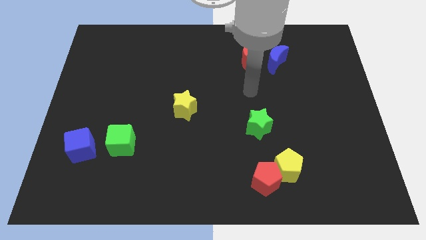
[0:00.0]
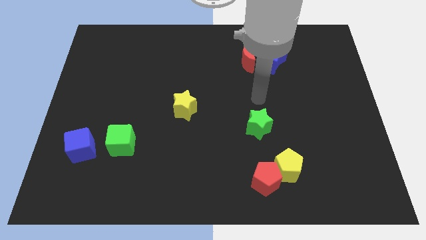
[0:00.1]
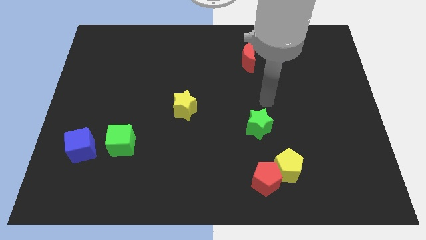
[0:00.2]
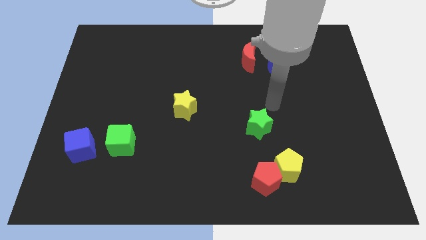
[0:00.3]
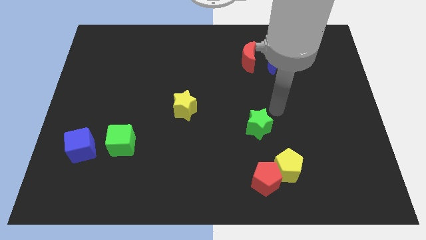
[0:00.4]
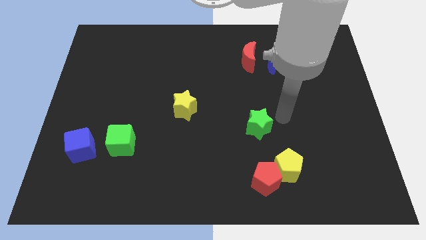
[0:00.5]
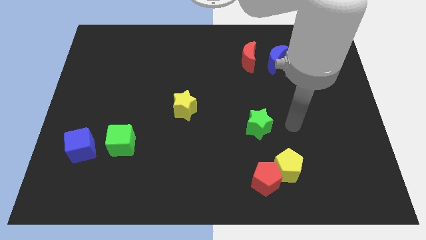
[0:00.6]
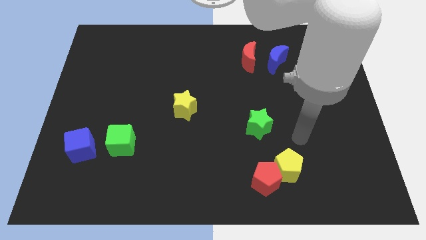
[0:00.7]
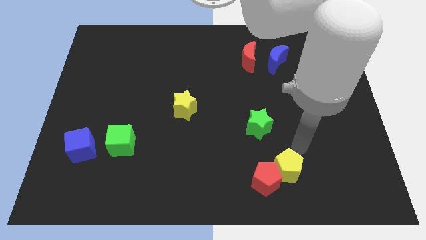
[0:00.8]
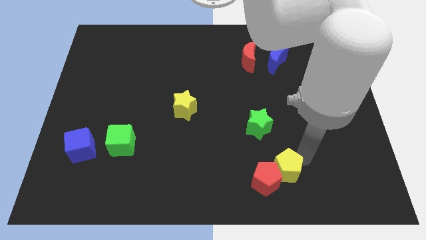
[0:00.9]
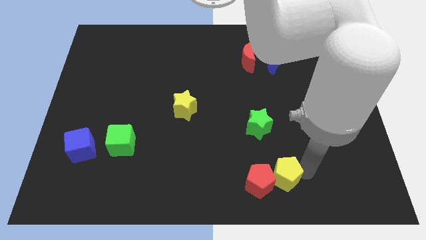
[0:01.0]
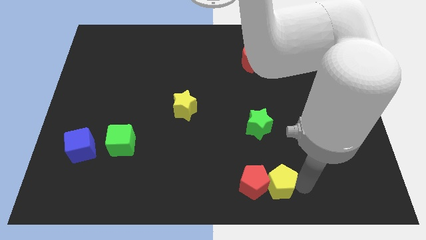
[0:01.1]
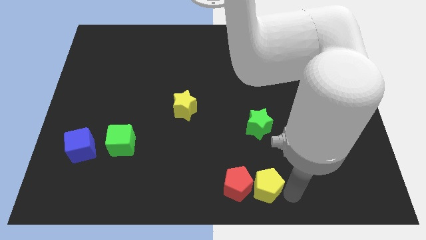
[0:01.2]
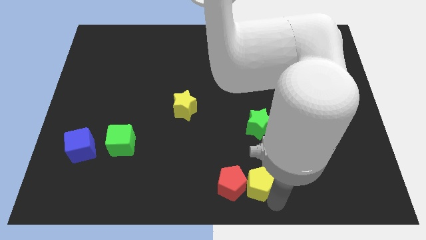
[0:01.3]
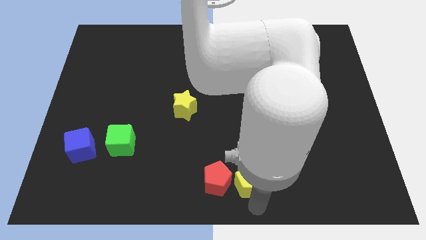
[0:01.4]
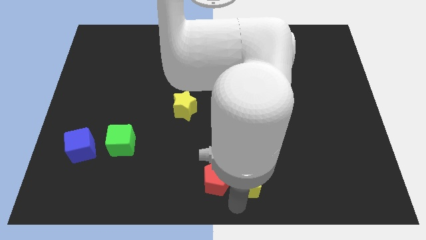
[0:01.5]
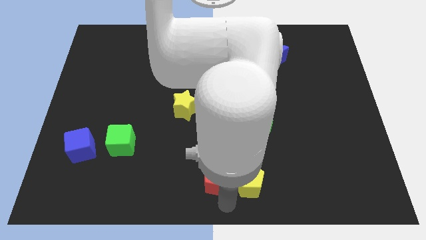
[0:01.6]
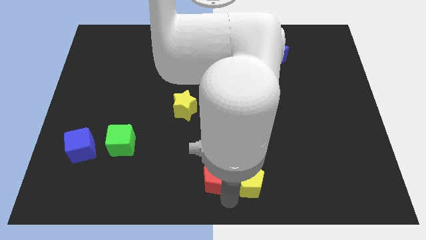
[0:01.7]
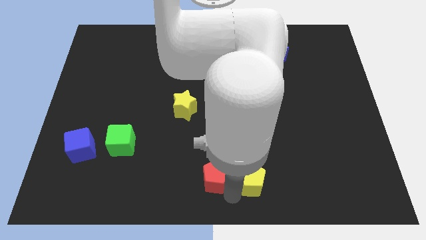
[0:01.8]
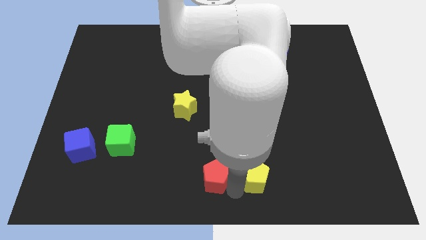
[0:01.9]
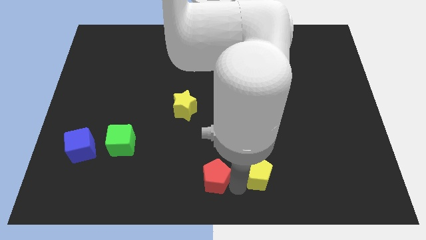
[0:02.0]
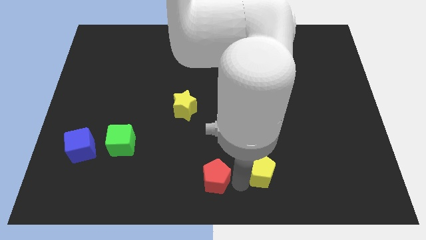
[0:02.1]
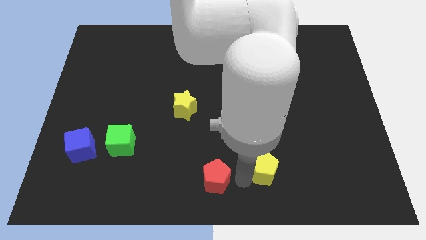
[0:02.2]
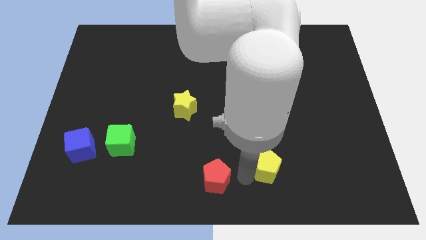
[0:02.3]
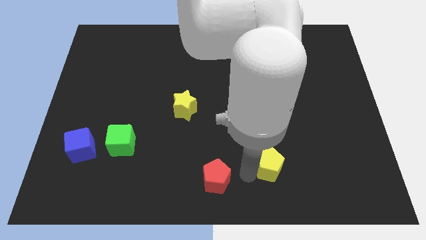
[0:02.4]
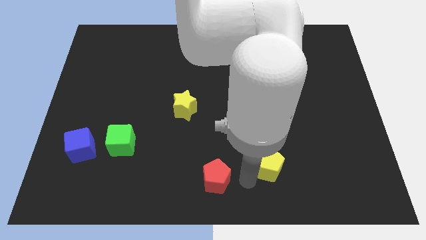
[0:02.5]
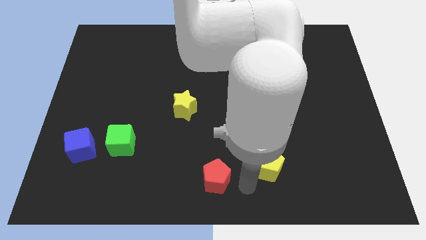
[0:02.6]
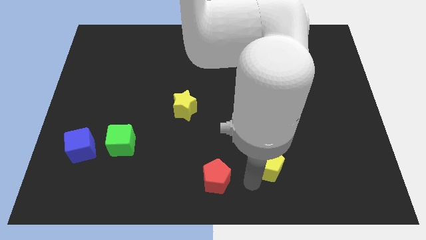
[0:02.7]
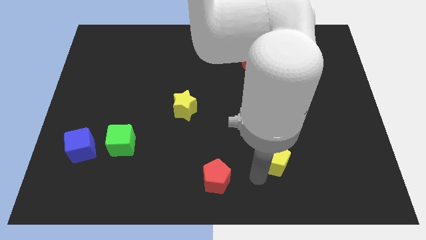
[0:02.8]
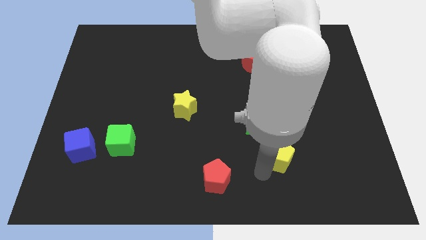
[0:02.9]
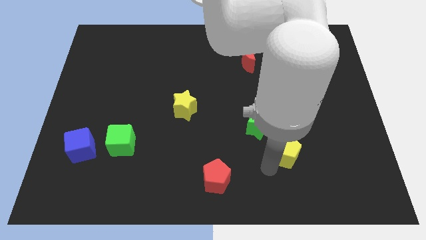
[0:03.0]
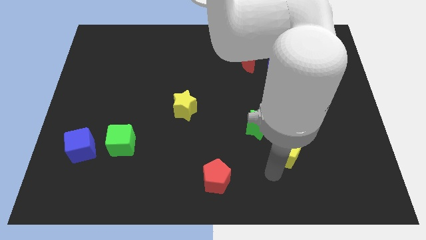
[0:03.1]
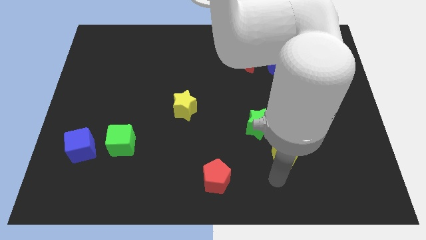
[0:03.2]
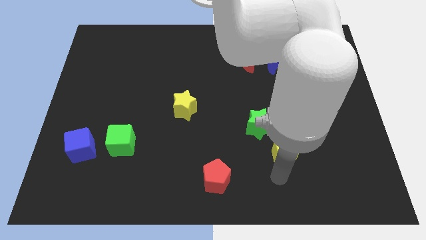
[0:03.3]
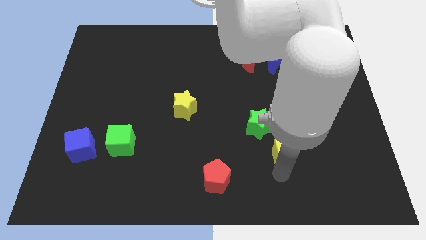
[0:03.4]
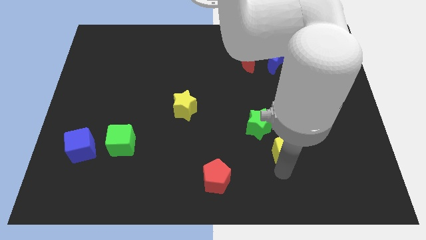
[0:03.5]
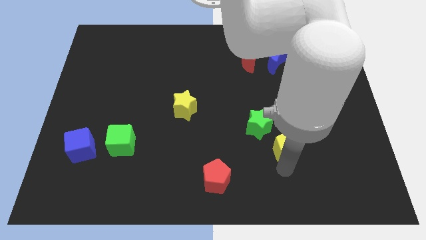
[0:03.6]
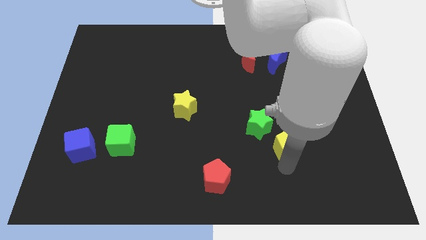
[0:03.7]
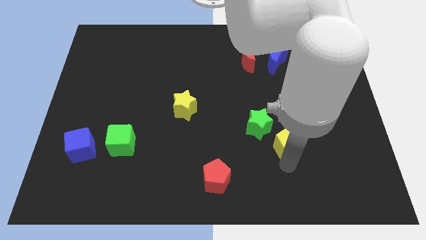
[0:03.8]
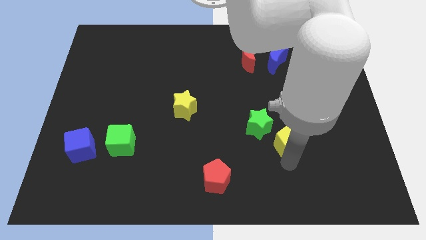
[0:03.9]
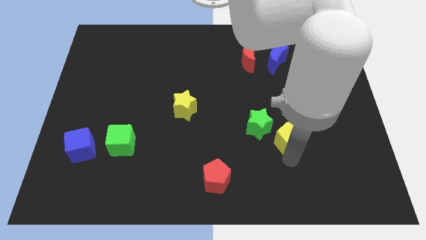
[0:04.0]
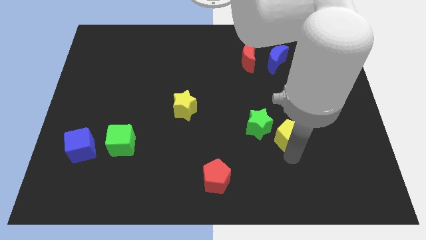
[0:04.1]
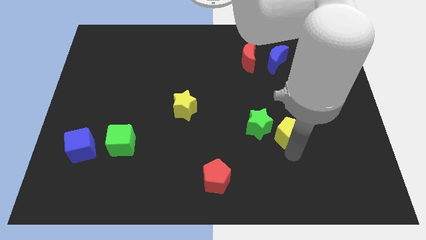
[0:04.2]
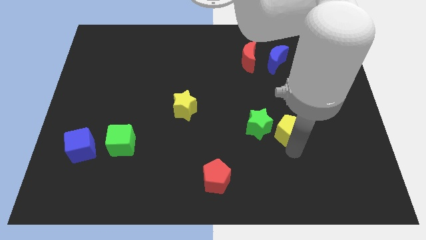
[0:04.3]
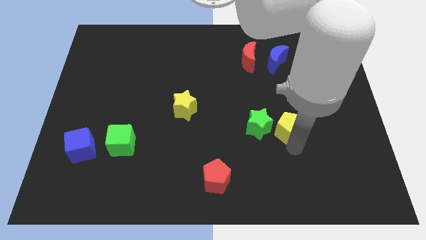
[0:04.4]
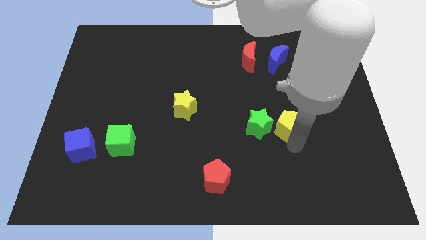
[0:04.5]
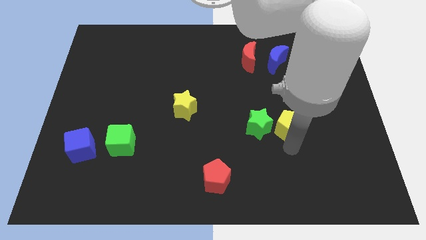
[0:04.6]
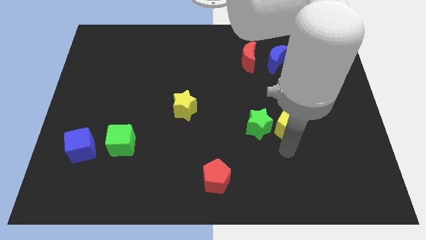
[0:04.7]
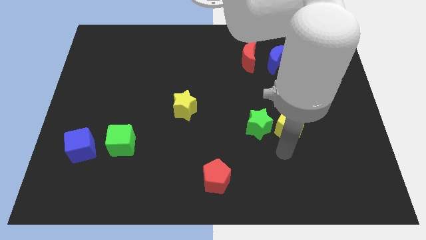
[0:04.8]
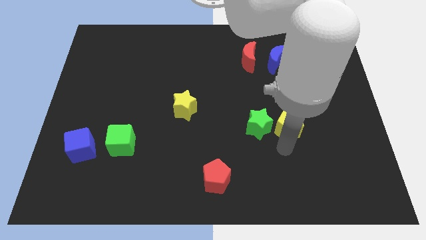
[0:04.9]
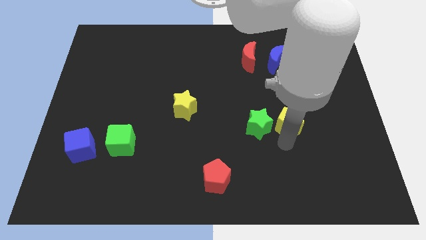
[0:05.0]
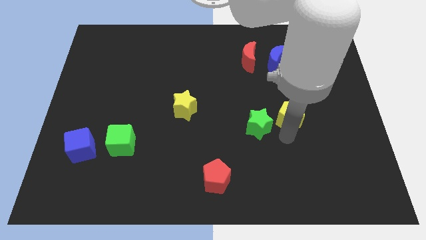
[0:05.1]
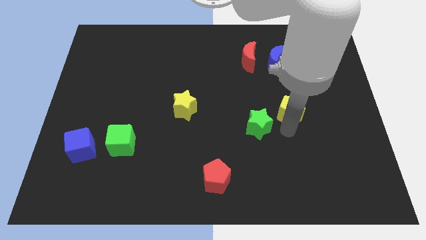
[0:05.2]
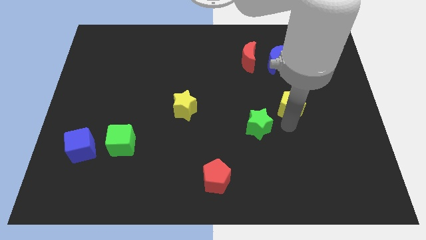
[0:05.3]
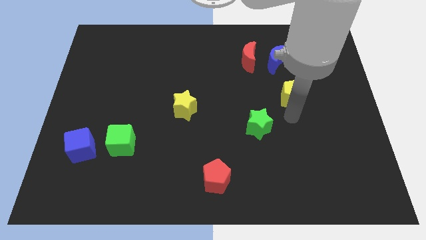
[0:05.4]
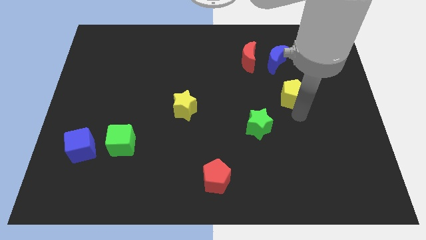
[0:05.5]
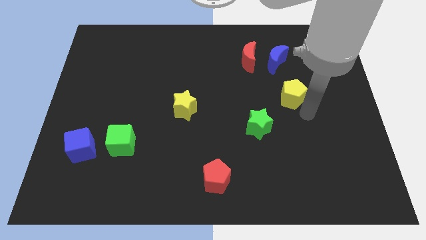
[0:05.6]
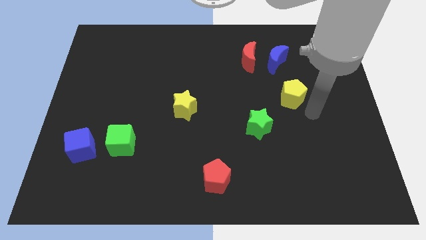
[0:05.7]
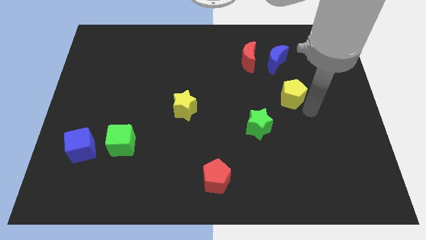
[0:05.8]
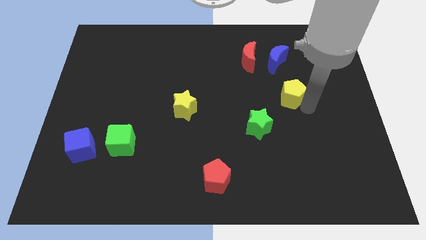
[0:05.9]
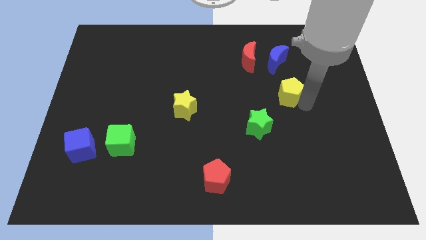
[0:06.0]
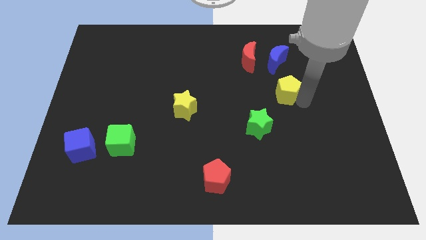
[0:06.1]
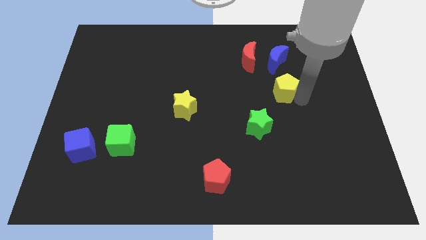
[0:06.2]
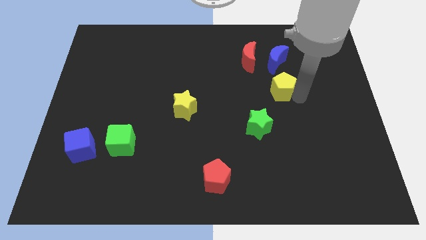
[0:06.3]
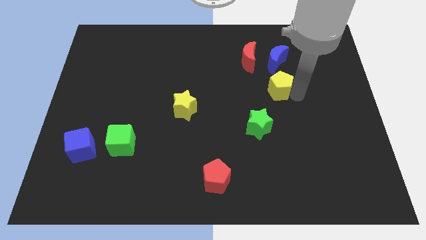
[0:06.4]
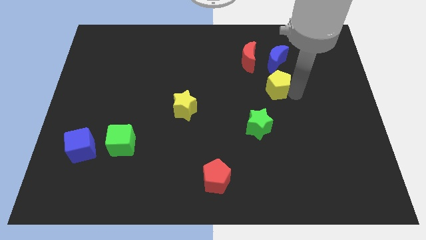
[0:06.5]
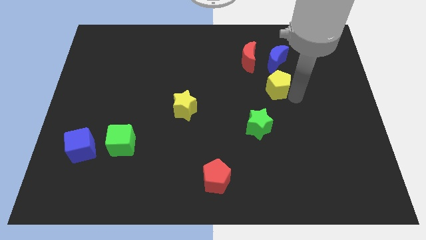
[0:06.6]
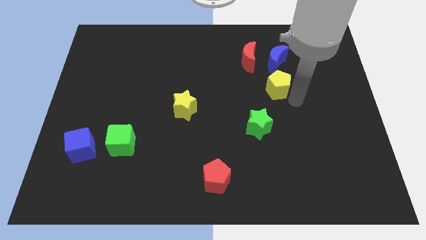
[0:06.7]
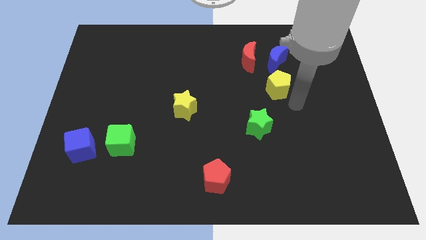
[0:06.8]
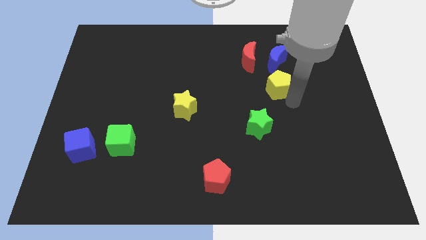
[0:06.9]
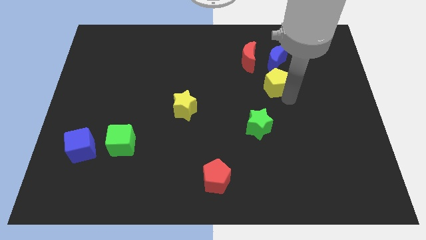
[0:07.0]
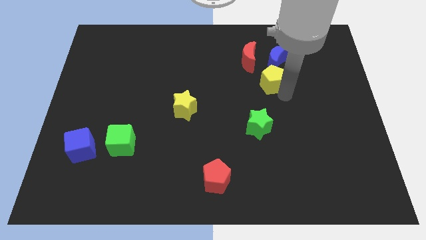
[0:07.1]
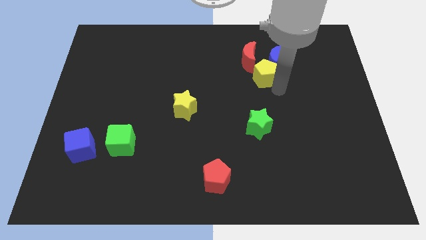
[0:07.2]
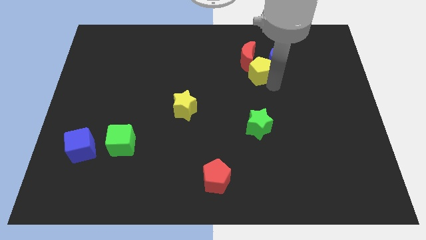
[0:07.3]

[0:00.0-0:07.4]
put the yellow pentagon close to the red moon
